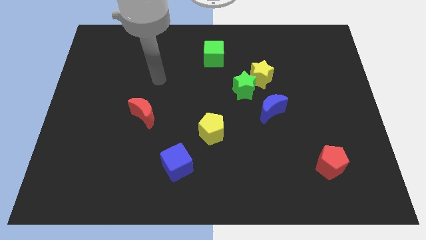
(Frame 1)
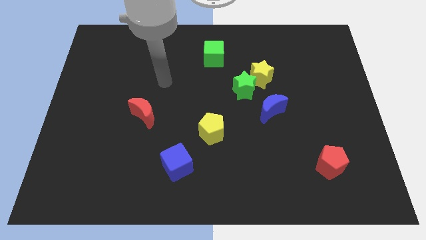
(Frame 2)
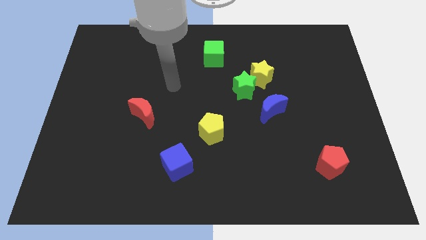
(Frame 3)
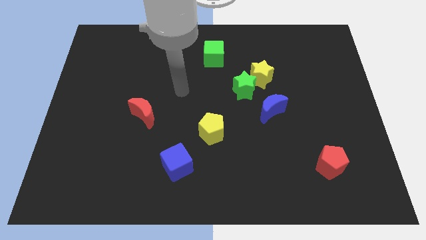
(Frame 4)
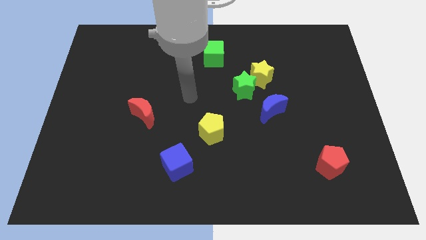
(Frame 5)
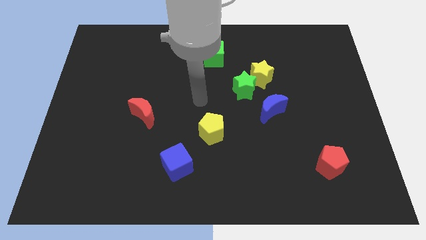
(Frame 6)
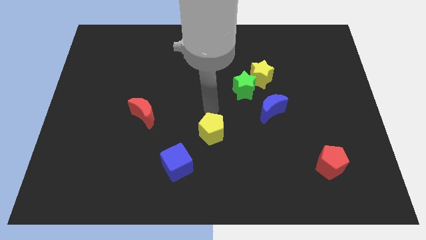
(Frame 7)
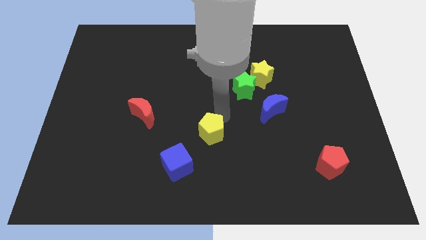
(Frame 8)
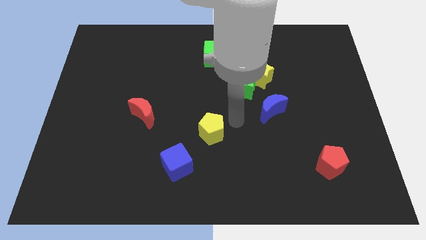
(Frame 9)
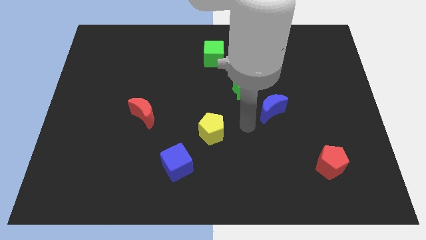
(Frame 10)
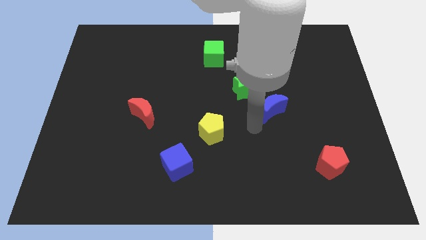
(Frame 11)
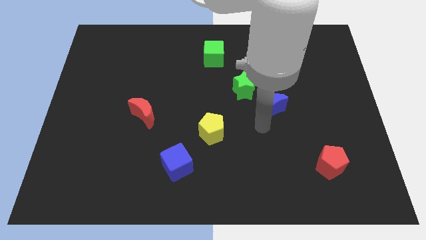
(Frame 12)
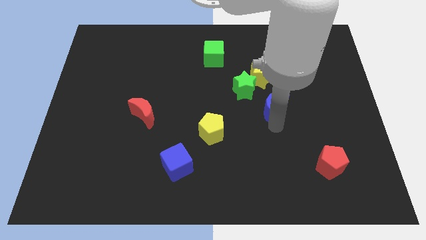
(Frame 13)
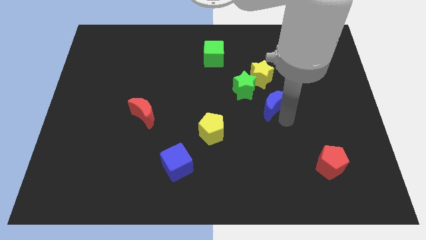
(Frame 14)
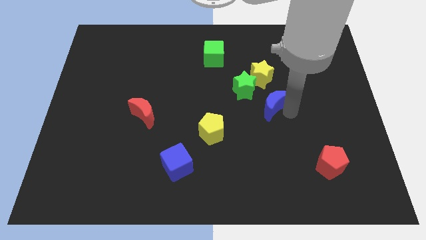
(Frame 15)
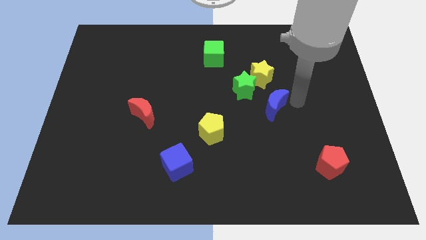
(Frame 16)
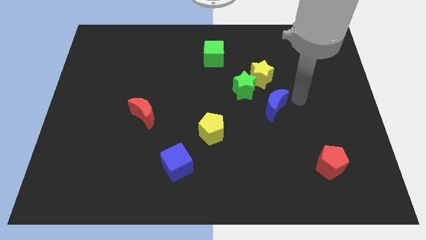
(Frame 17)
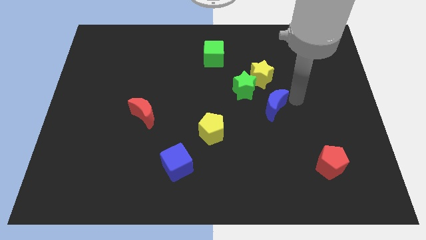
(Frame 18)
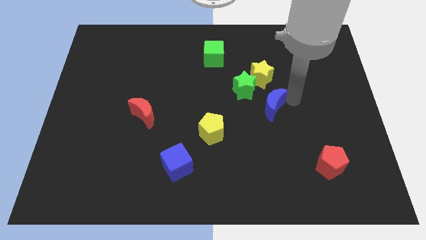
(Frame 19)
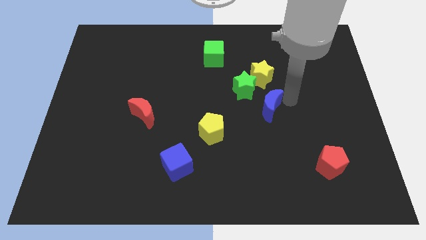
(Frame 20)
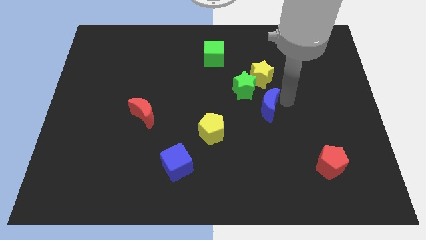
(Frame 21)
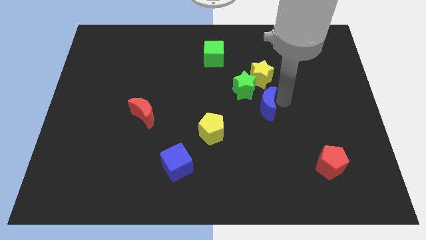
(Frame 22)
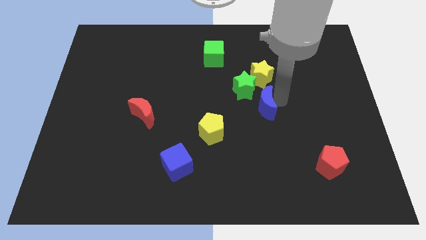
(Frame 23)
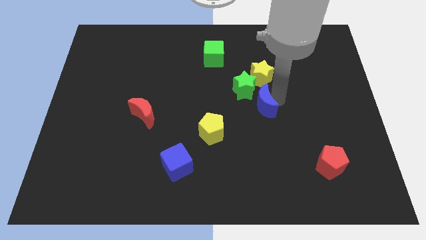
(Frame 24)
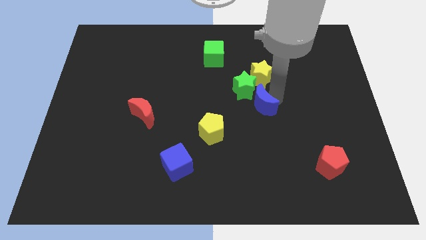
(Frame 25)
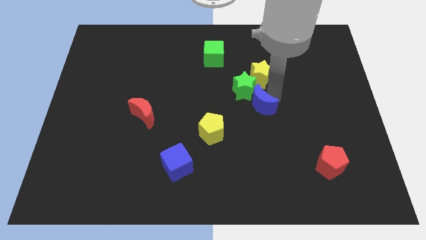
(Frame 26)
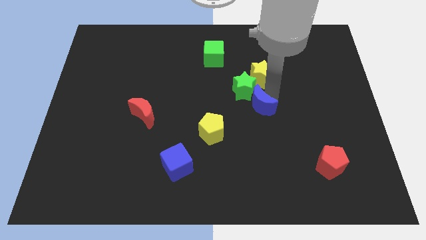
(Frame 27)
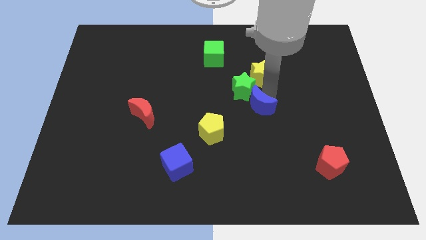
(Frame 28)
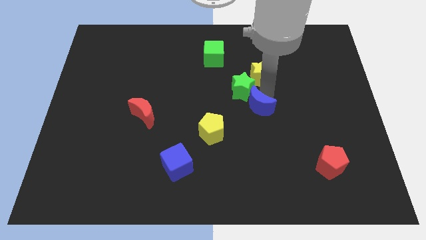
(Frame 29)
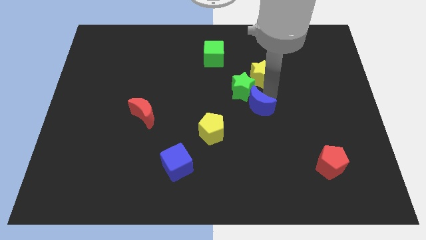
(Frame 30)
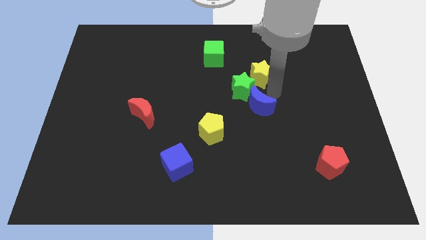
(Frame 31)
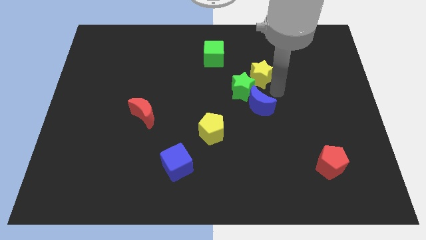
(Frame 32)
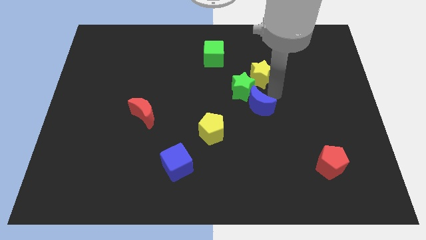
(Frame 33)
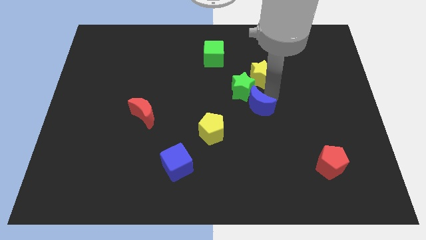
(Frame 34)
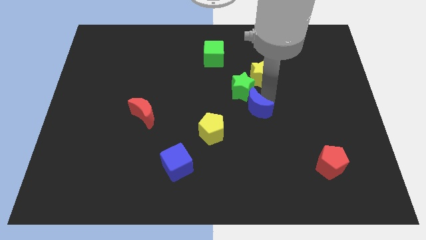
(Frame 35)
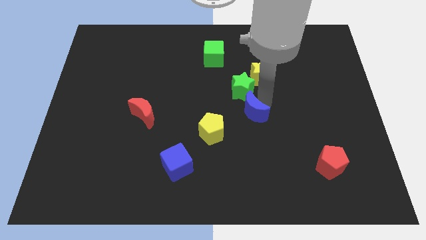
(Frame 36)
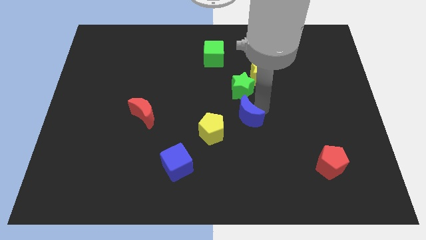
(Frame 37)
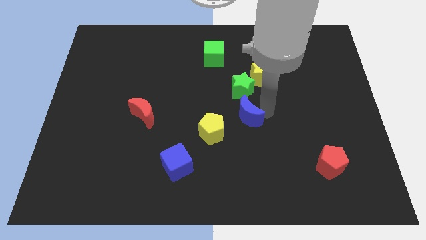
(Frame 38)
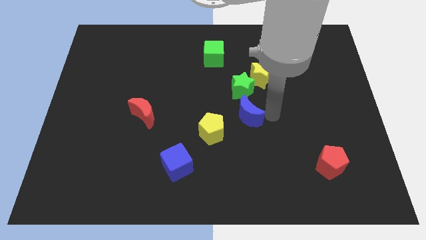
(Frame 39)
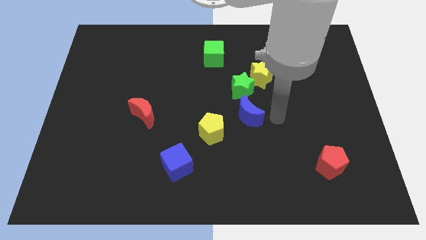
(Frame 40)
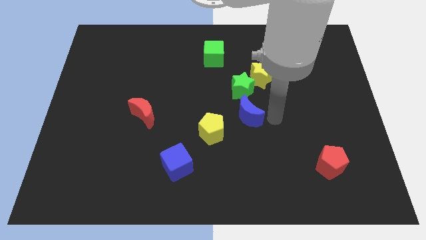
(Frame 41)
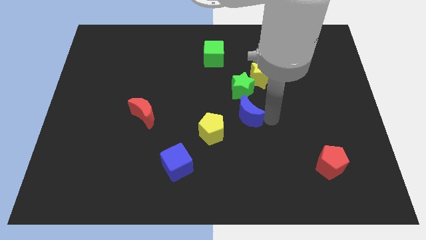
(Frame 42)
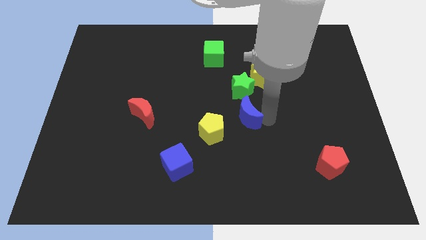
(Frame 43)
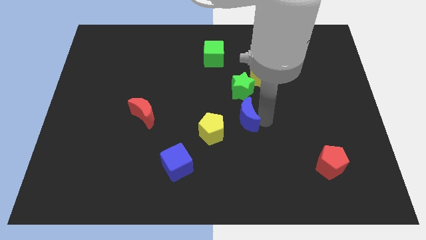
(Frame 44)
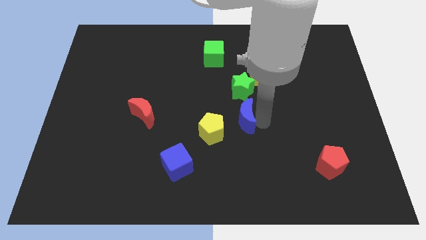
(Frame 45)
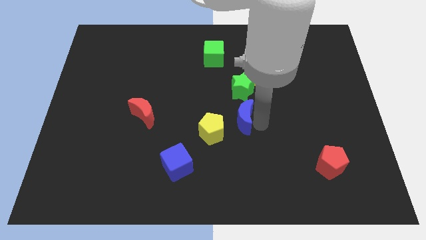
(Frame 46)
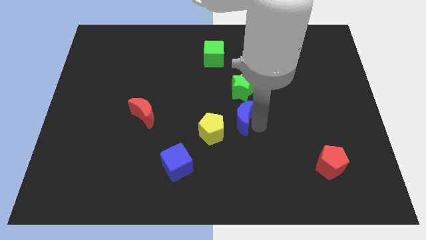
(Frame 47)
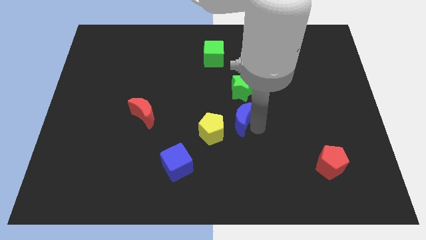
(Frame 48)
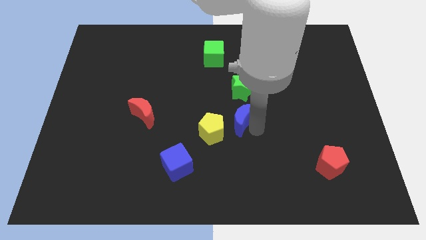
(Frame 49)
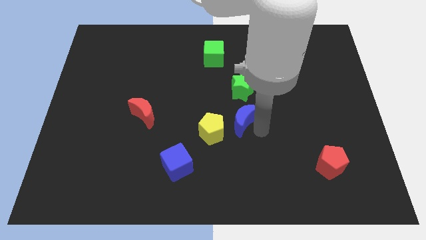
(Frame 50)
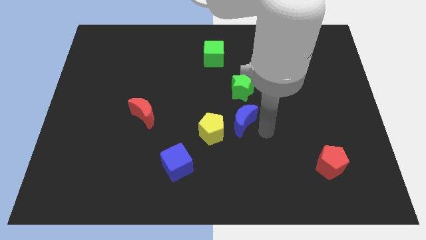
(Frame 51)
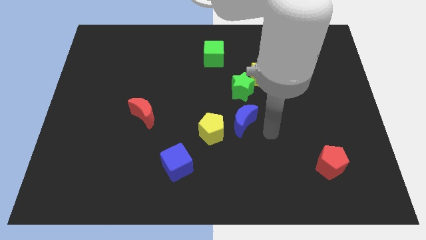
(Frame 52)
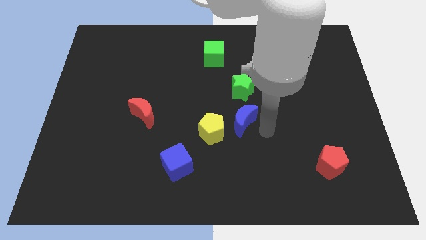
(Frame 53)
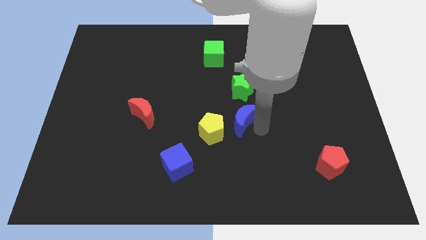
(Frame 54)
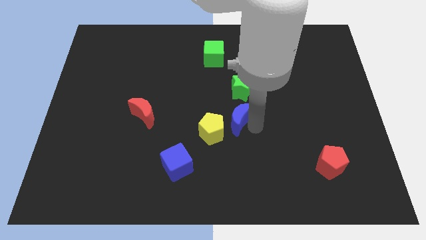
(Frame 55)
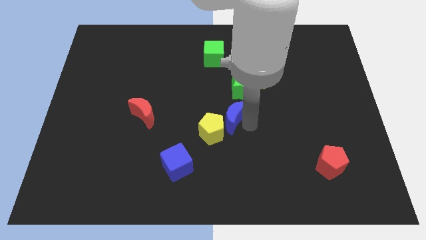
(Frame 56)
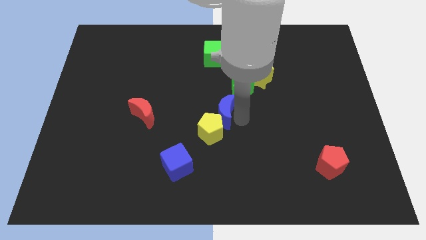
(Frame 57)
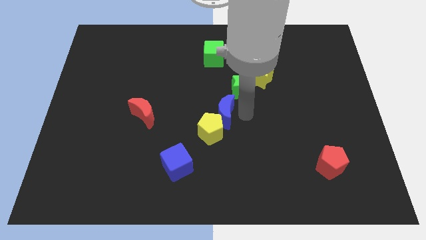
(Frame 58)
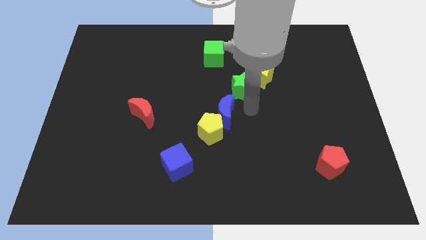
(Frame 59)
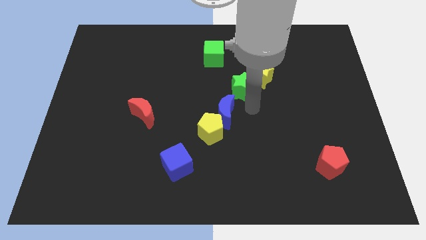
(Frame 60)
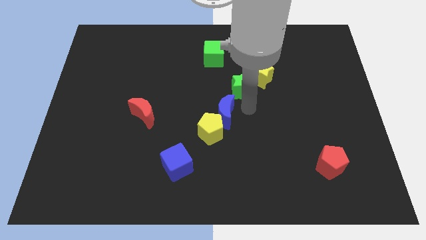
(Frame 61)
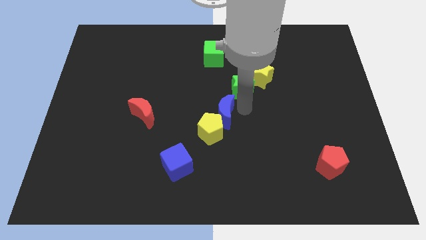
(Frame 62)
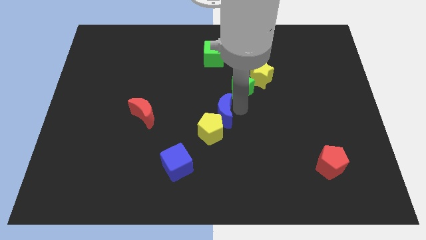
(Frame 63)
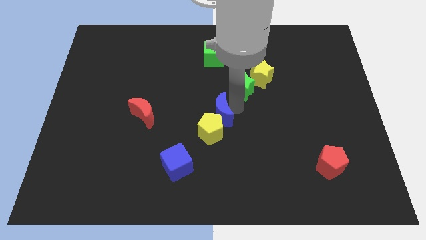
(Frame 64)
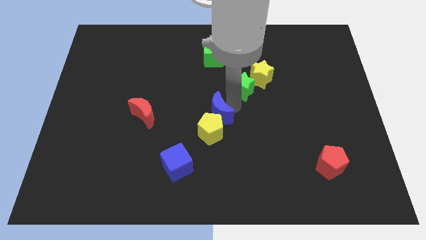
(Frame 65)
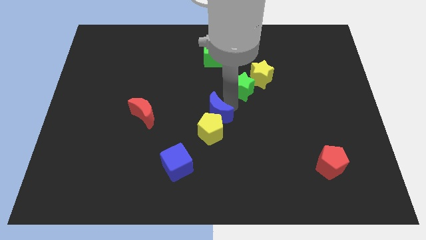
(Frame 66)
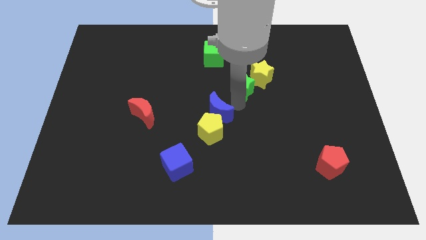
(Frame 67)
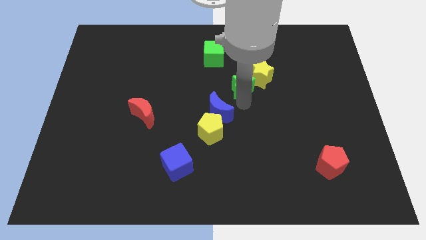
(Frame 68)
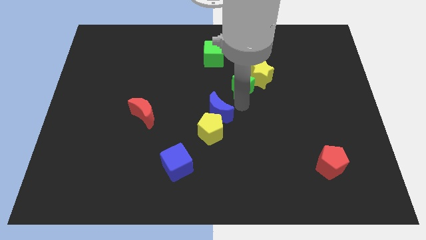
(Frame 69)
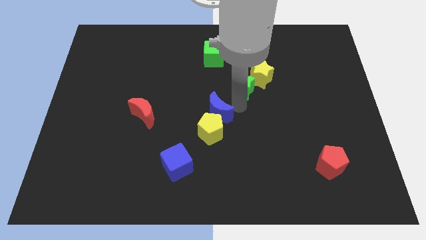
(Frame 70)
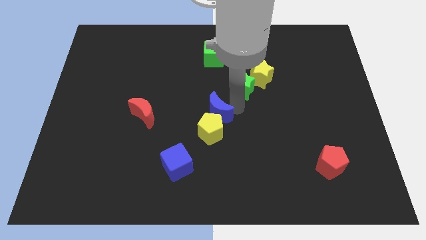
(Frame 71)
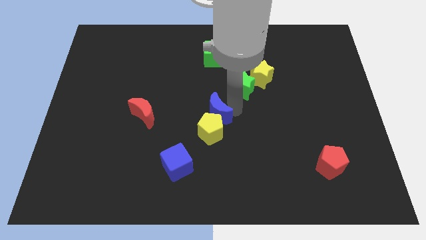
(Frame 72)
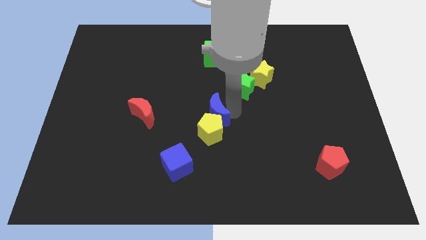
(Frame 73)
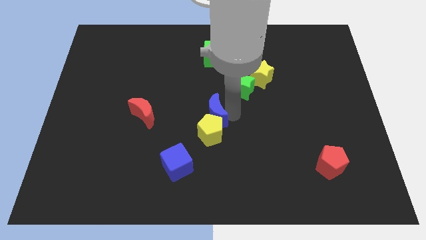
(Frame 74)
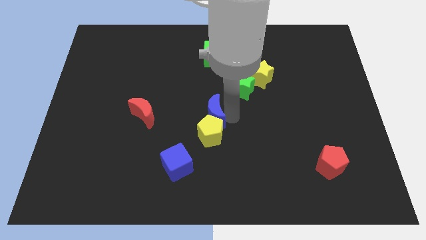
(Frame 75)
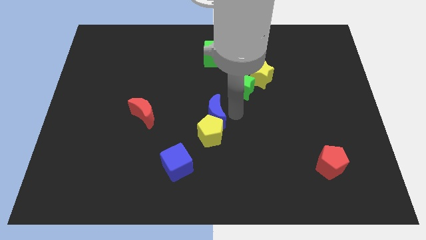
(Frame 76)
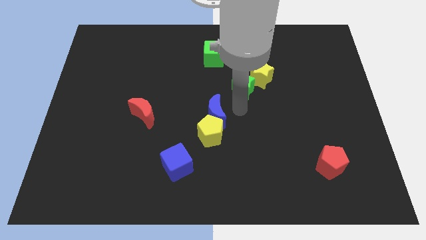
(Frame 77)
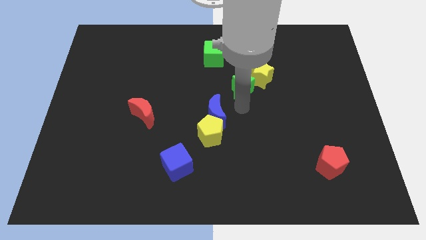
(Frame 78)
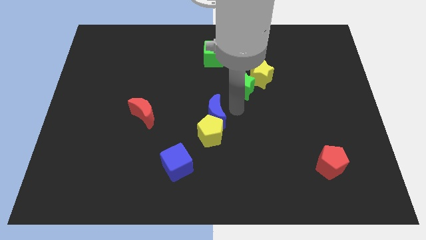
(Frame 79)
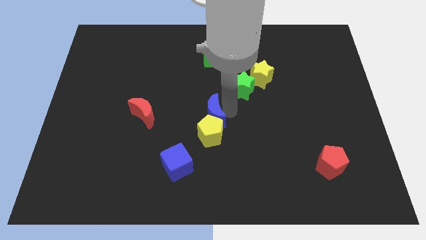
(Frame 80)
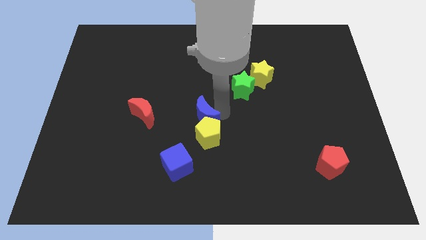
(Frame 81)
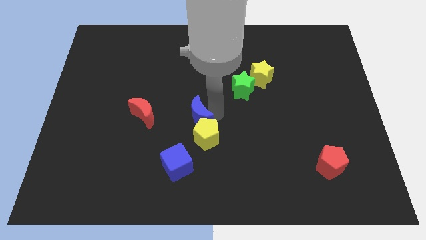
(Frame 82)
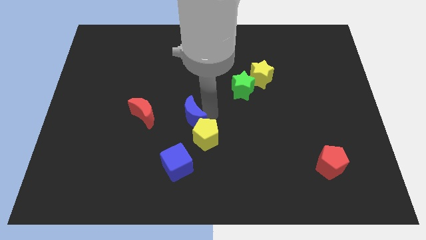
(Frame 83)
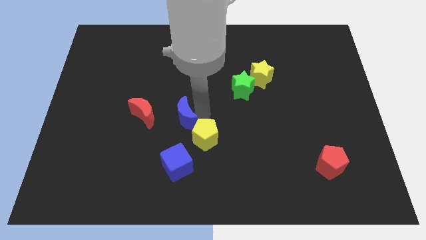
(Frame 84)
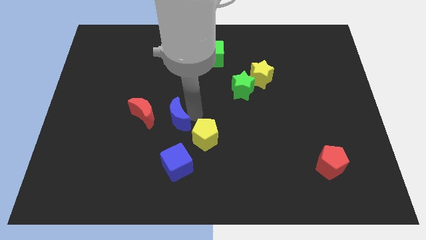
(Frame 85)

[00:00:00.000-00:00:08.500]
slide the blue moon to the bottom right of the red moon
